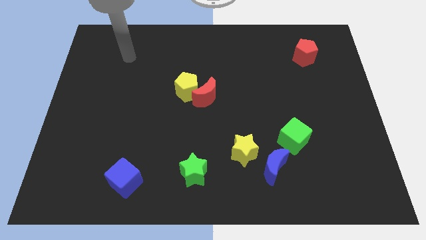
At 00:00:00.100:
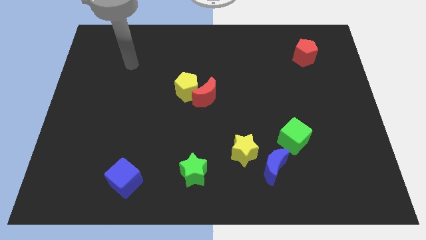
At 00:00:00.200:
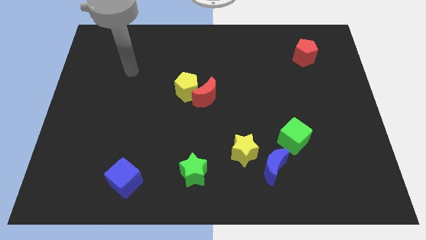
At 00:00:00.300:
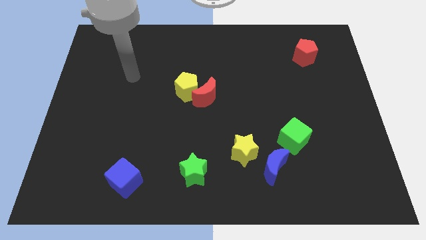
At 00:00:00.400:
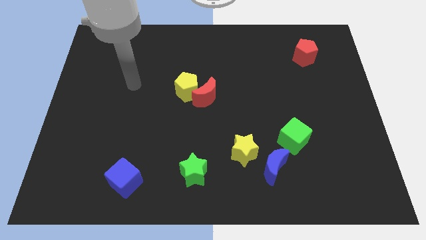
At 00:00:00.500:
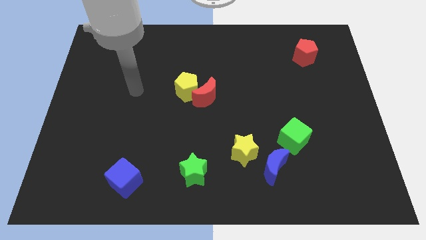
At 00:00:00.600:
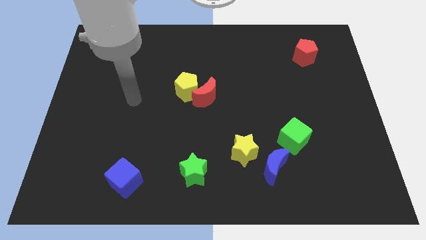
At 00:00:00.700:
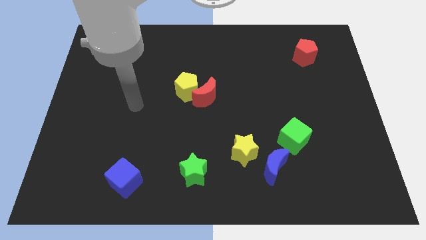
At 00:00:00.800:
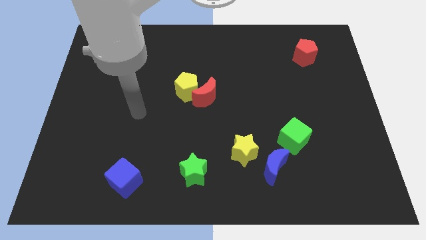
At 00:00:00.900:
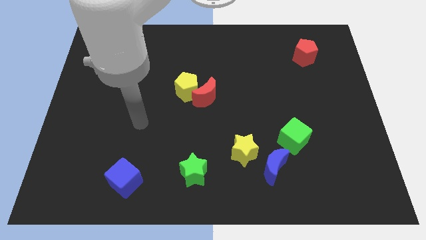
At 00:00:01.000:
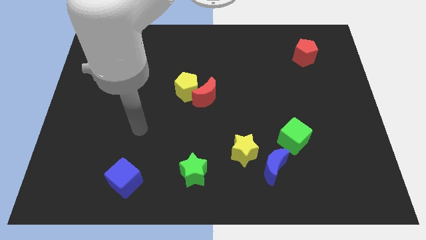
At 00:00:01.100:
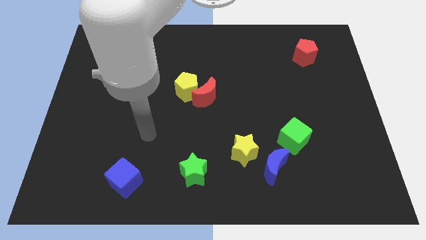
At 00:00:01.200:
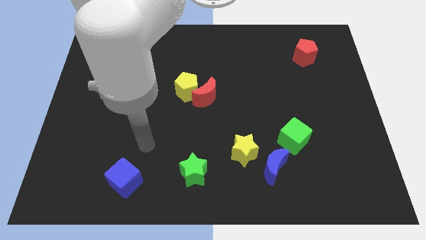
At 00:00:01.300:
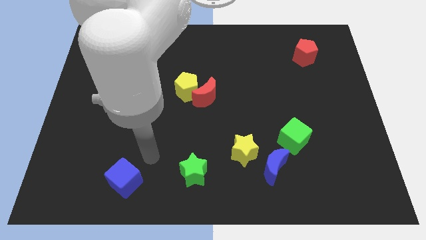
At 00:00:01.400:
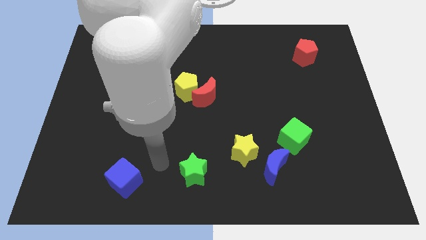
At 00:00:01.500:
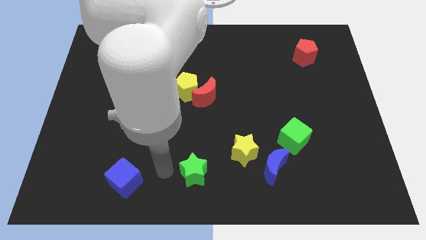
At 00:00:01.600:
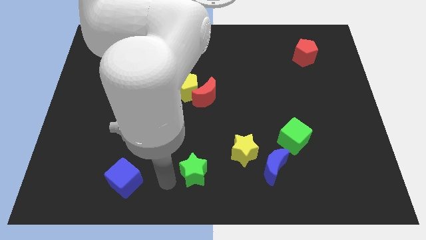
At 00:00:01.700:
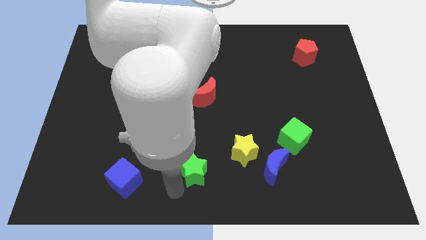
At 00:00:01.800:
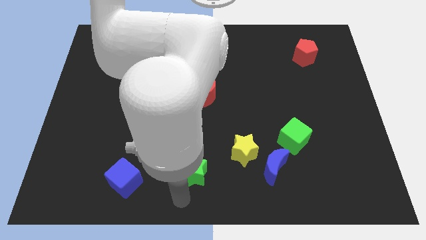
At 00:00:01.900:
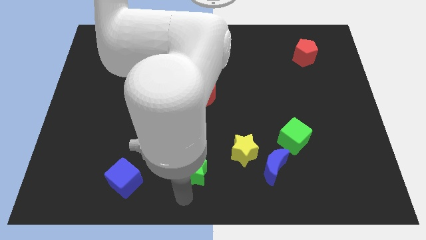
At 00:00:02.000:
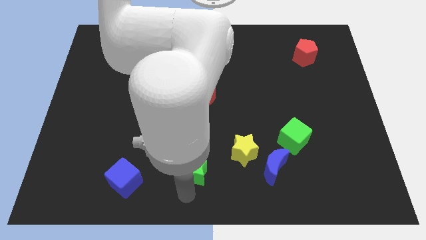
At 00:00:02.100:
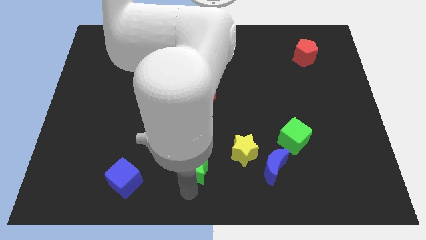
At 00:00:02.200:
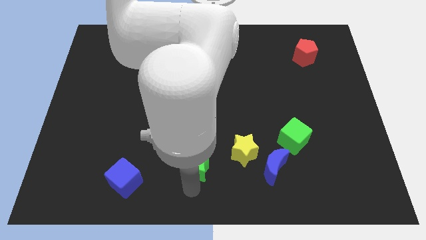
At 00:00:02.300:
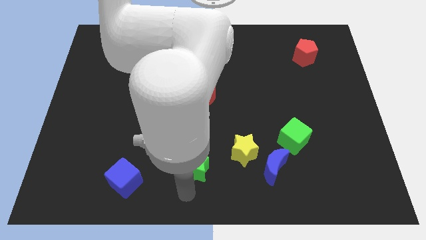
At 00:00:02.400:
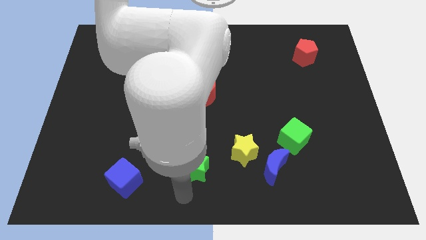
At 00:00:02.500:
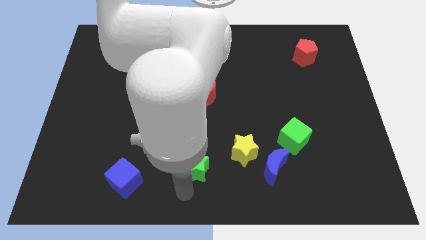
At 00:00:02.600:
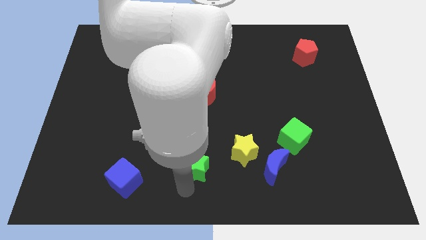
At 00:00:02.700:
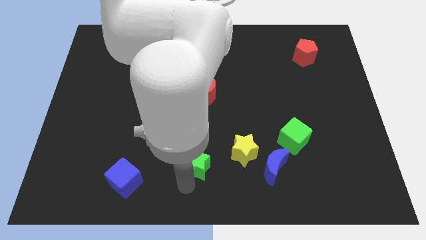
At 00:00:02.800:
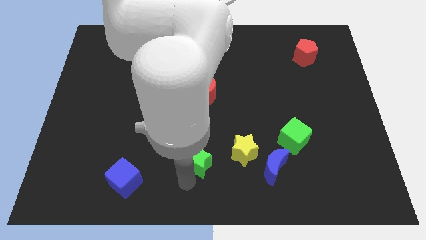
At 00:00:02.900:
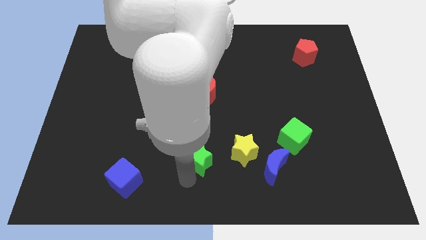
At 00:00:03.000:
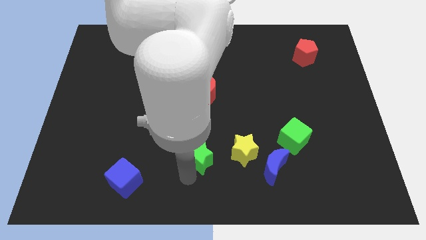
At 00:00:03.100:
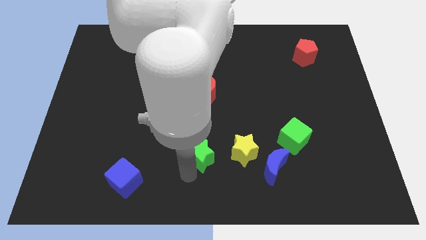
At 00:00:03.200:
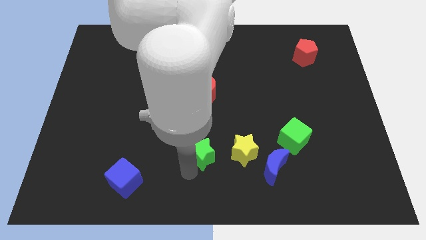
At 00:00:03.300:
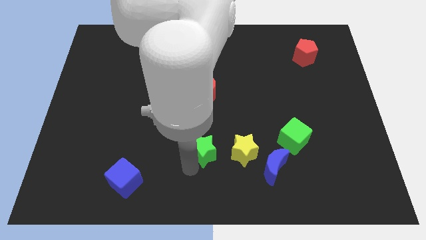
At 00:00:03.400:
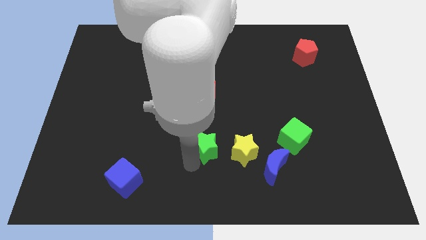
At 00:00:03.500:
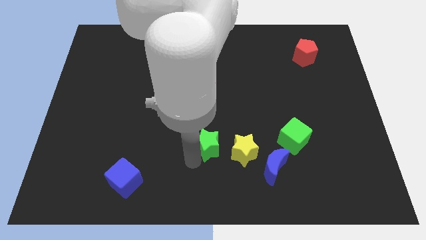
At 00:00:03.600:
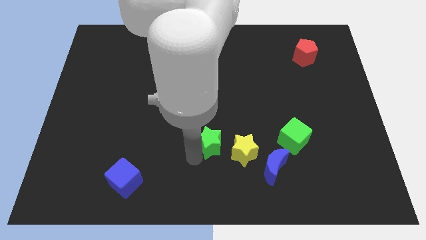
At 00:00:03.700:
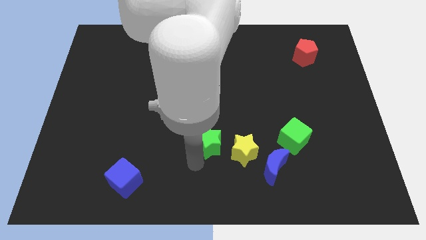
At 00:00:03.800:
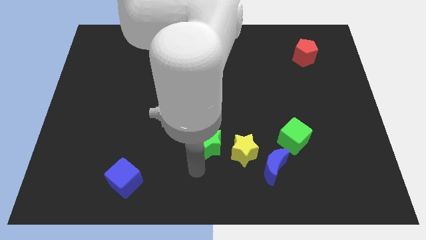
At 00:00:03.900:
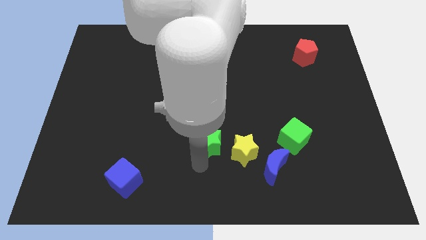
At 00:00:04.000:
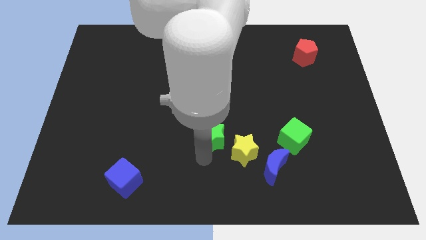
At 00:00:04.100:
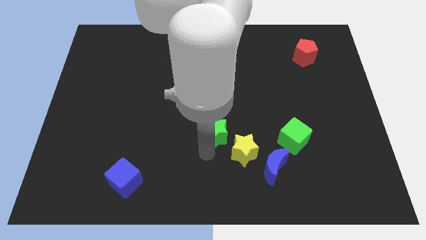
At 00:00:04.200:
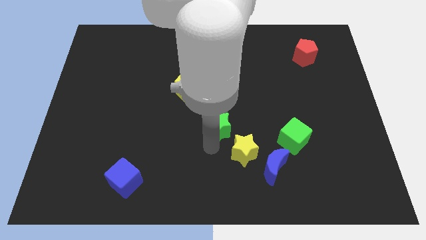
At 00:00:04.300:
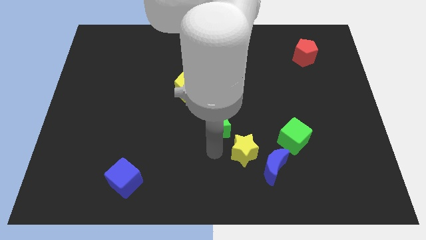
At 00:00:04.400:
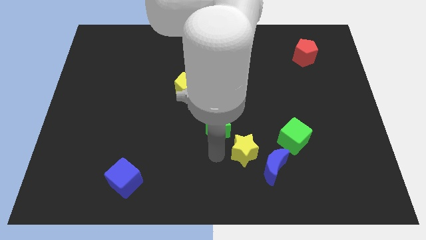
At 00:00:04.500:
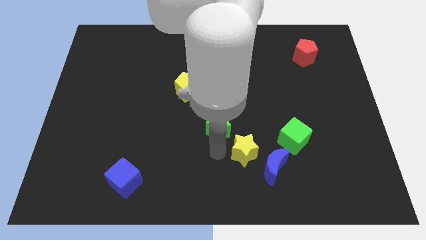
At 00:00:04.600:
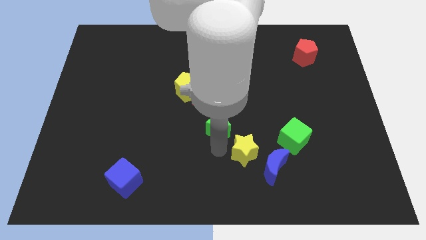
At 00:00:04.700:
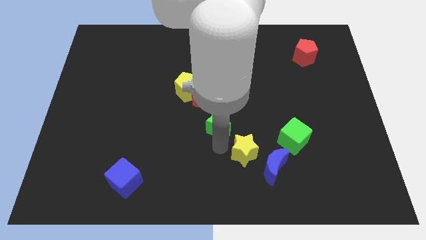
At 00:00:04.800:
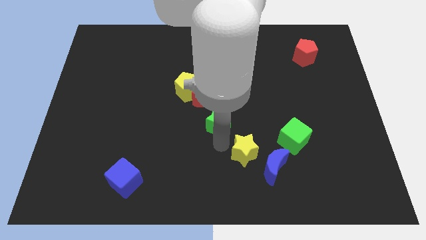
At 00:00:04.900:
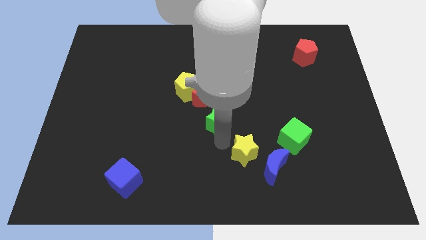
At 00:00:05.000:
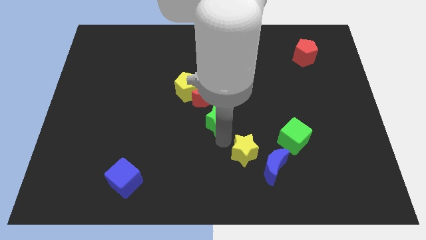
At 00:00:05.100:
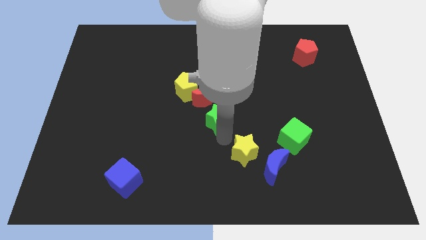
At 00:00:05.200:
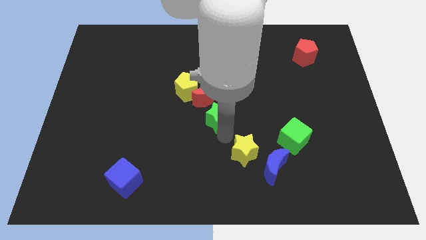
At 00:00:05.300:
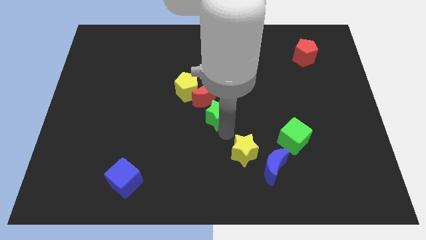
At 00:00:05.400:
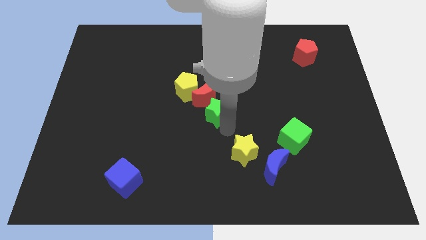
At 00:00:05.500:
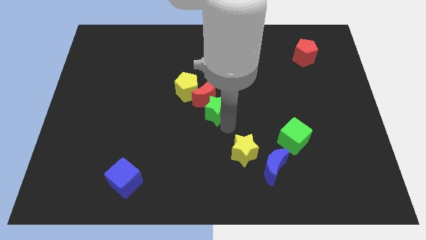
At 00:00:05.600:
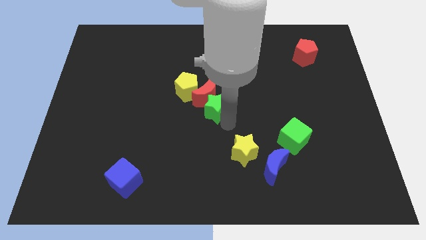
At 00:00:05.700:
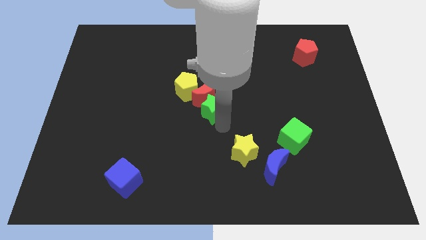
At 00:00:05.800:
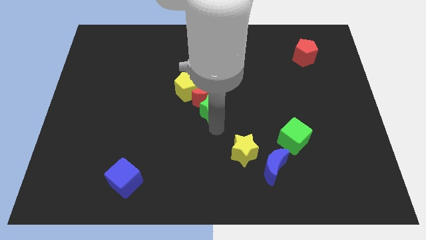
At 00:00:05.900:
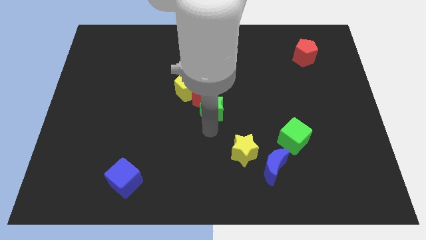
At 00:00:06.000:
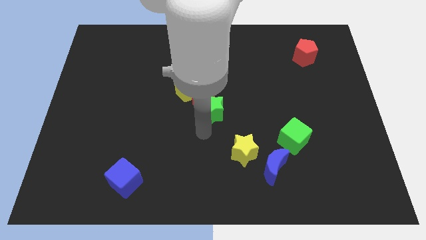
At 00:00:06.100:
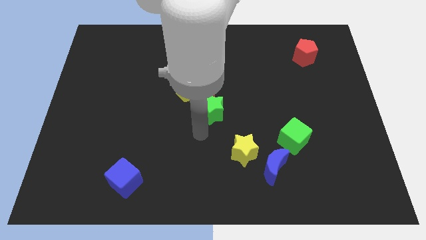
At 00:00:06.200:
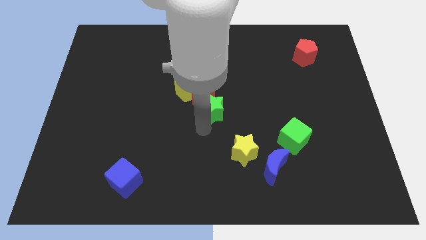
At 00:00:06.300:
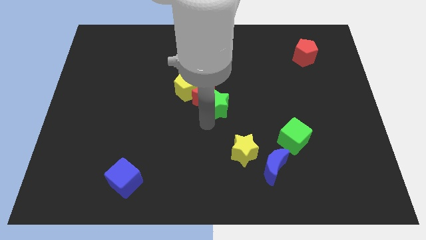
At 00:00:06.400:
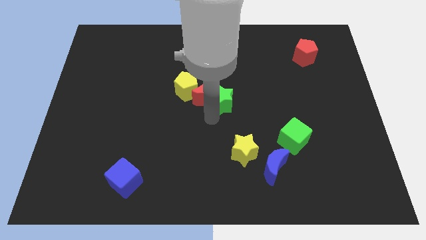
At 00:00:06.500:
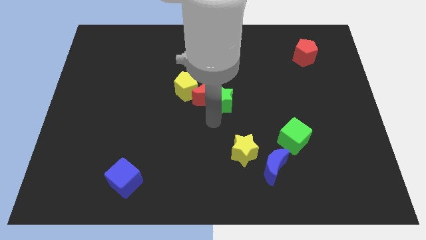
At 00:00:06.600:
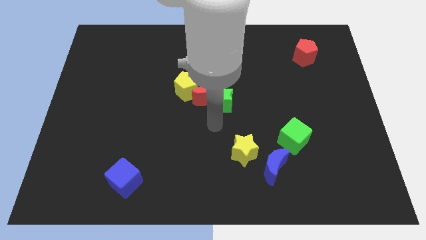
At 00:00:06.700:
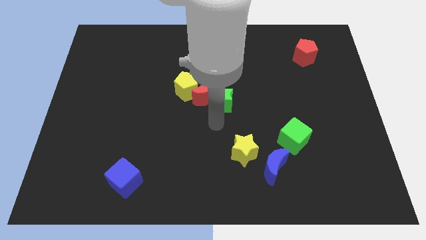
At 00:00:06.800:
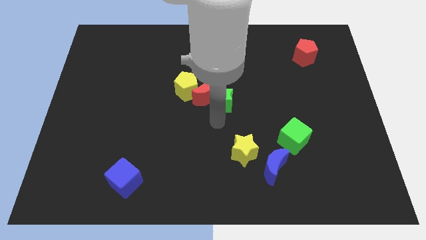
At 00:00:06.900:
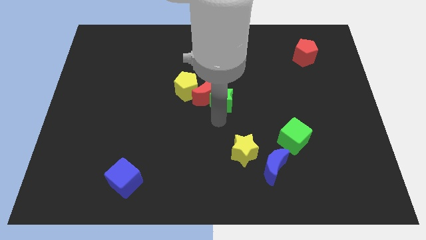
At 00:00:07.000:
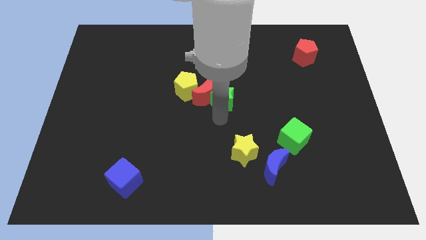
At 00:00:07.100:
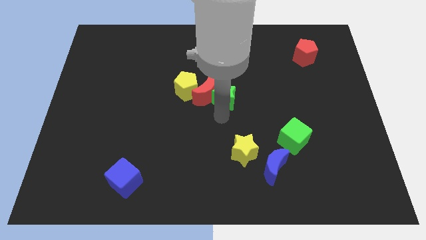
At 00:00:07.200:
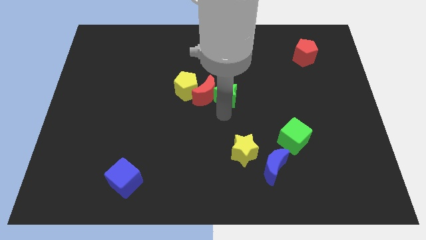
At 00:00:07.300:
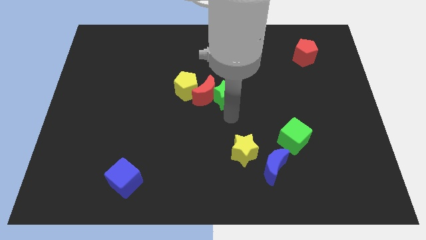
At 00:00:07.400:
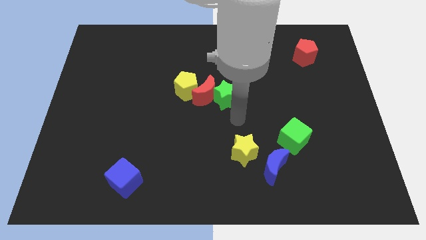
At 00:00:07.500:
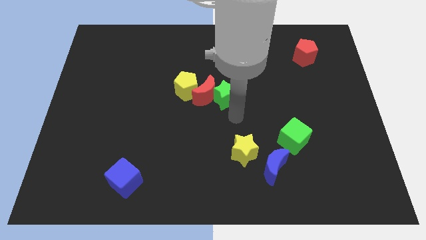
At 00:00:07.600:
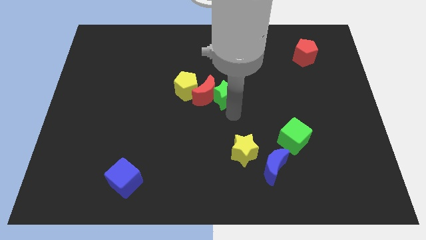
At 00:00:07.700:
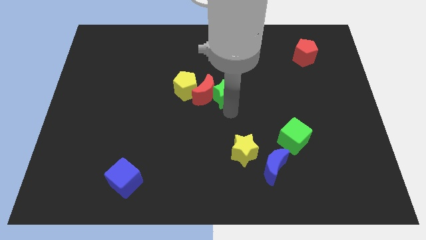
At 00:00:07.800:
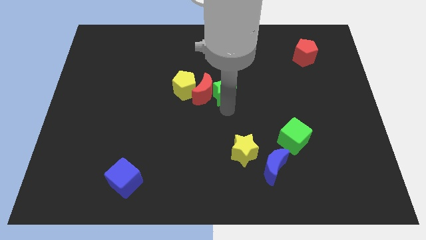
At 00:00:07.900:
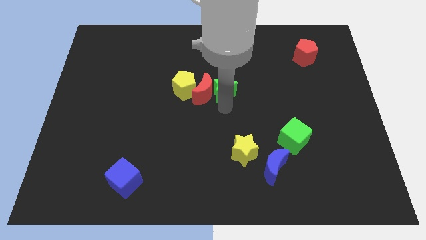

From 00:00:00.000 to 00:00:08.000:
slide the green star up
